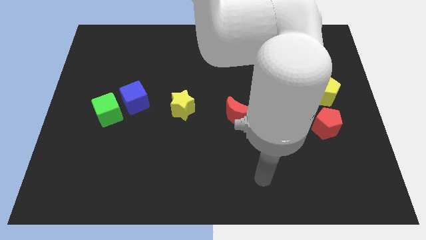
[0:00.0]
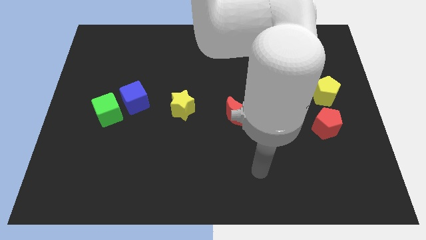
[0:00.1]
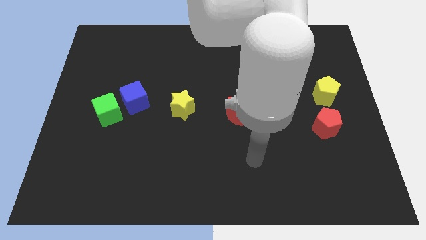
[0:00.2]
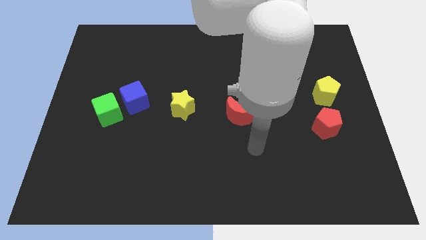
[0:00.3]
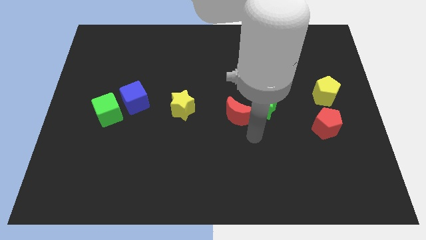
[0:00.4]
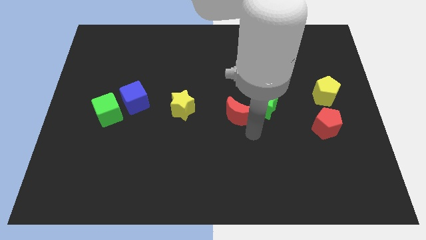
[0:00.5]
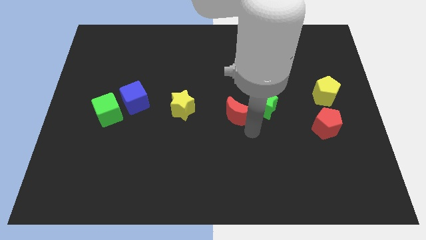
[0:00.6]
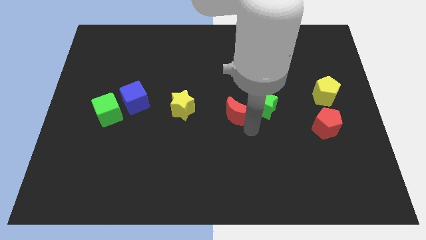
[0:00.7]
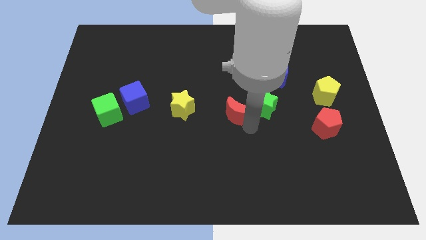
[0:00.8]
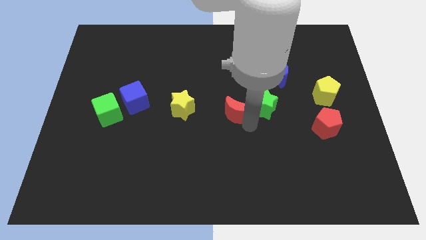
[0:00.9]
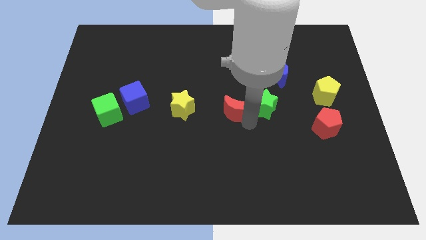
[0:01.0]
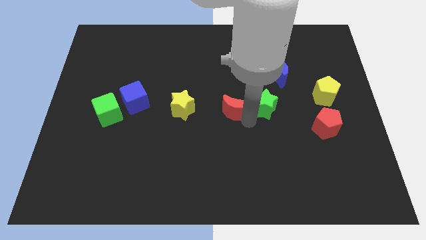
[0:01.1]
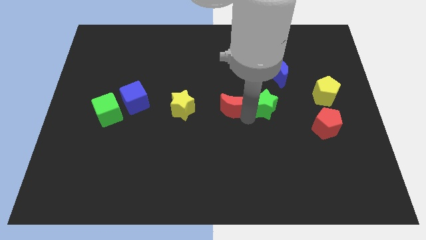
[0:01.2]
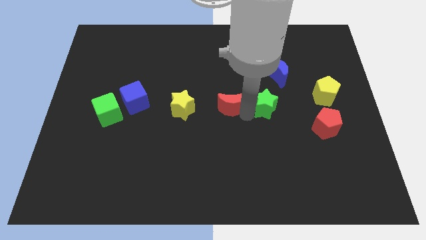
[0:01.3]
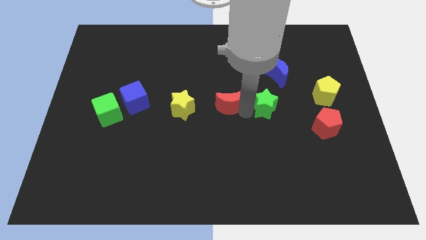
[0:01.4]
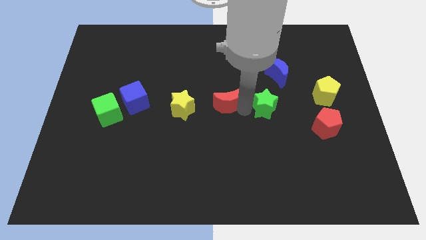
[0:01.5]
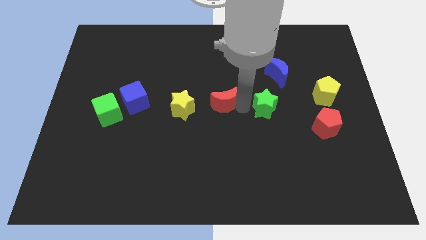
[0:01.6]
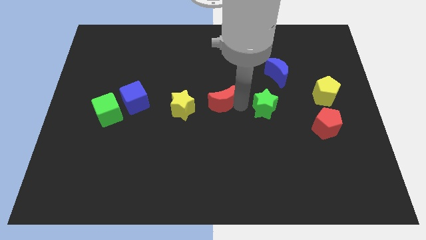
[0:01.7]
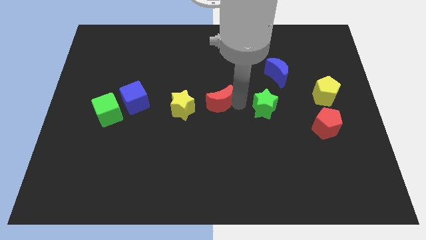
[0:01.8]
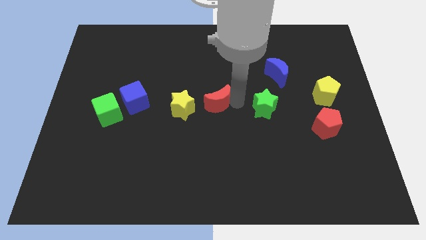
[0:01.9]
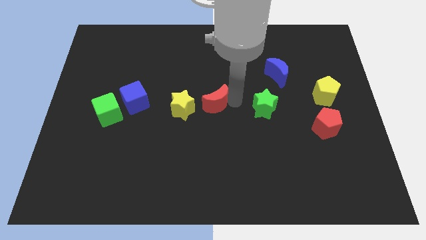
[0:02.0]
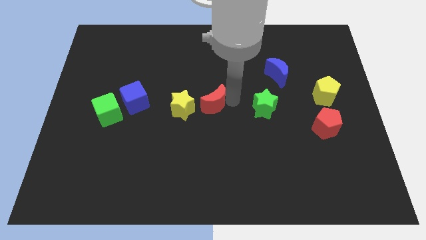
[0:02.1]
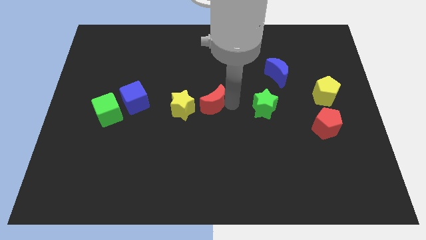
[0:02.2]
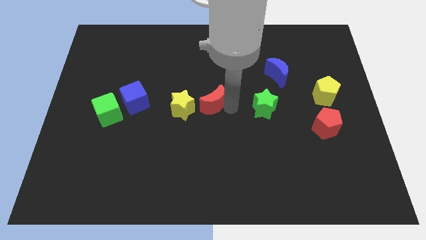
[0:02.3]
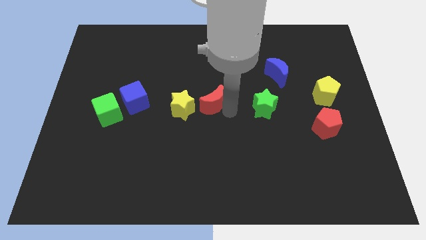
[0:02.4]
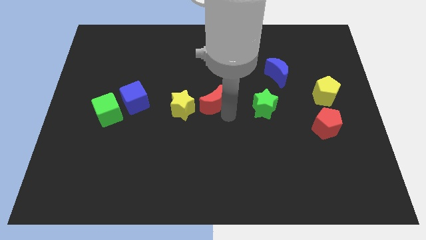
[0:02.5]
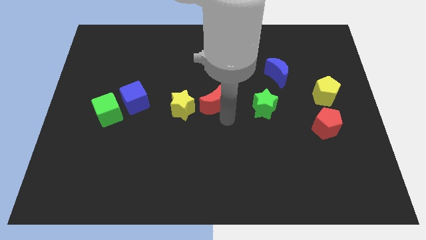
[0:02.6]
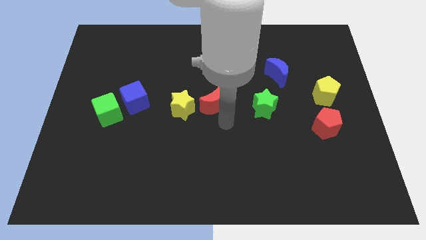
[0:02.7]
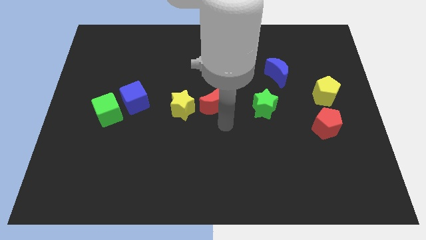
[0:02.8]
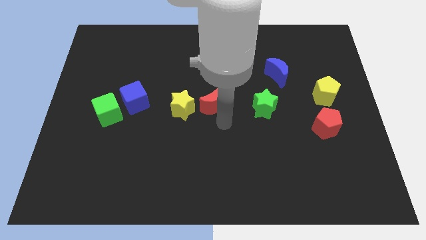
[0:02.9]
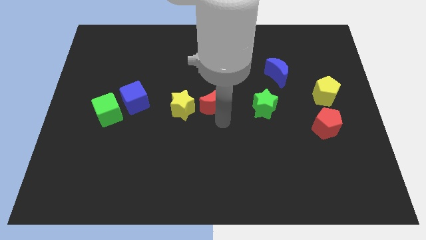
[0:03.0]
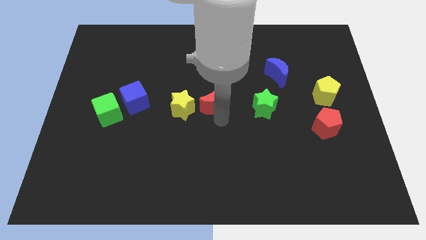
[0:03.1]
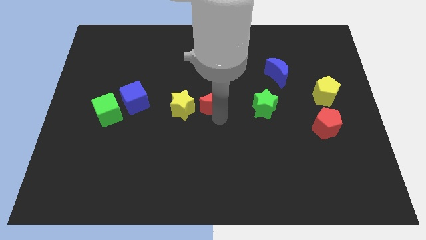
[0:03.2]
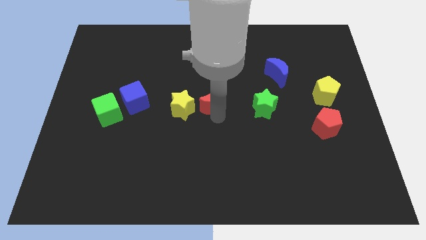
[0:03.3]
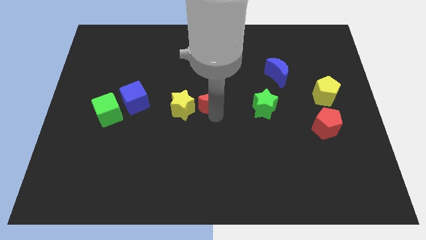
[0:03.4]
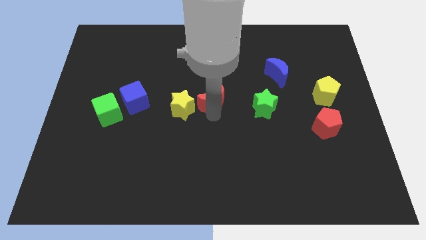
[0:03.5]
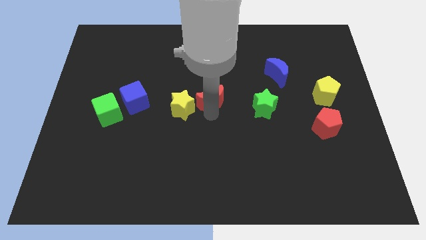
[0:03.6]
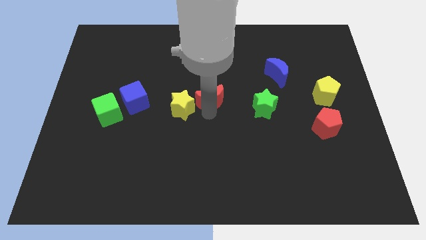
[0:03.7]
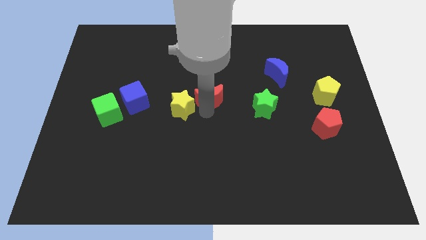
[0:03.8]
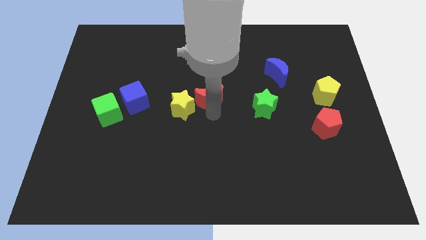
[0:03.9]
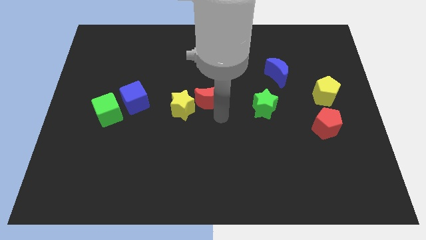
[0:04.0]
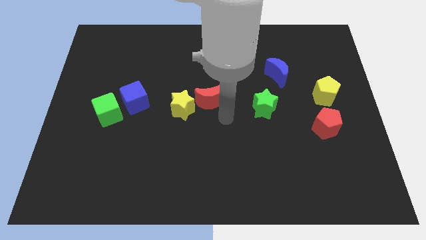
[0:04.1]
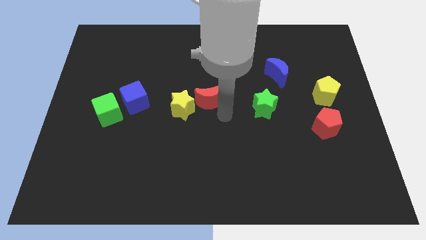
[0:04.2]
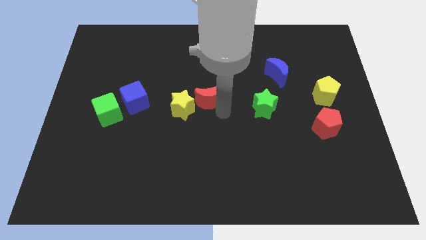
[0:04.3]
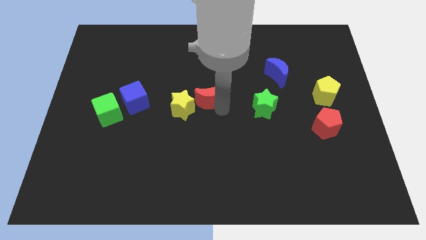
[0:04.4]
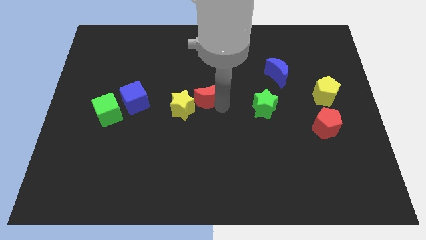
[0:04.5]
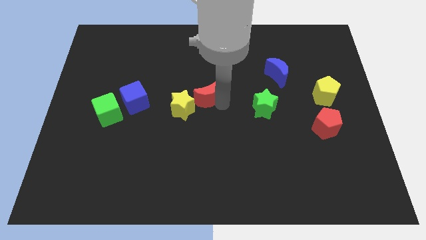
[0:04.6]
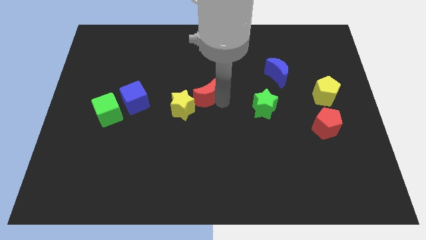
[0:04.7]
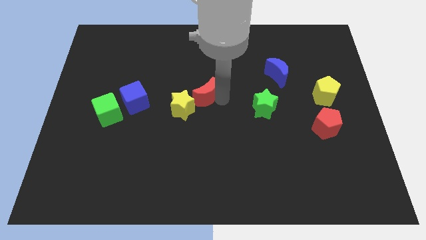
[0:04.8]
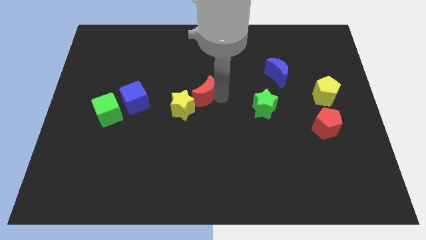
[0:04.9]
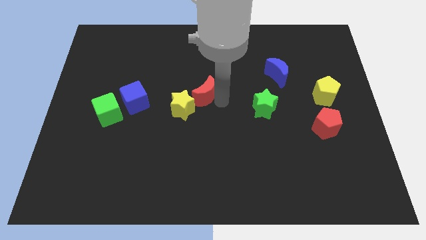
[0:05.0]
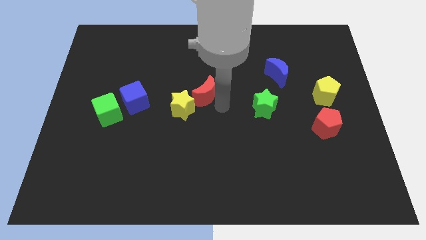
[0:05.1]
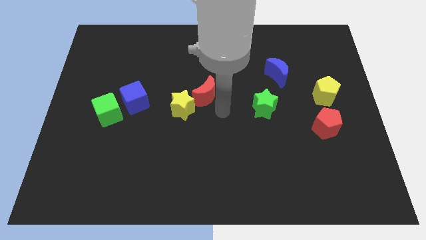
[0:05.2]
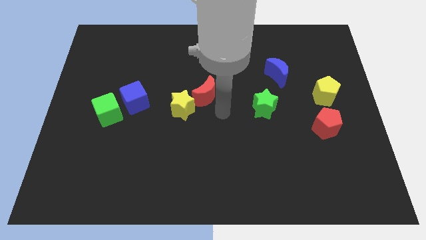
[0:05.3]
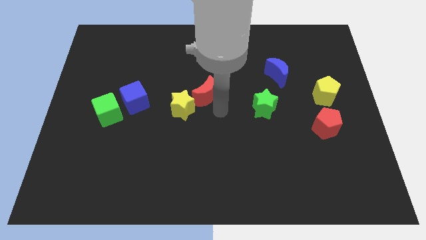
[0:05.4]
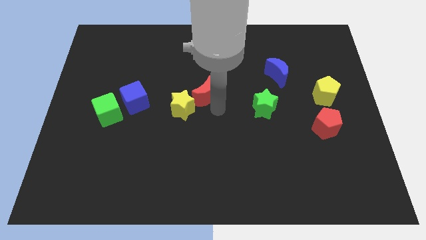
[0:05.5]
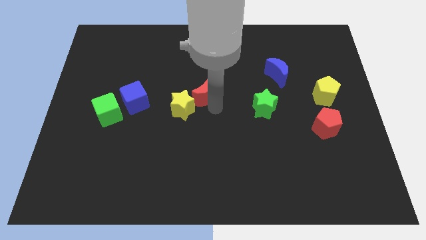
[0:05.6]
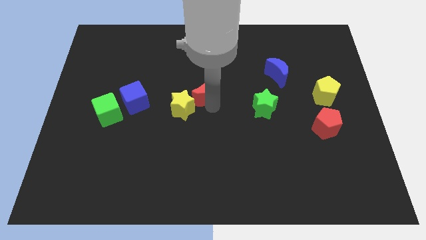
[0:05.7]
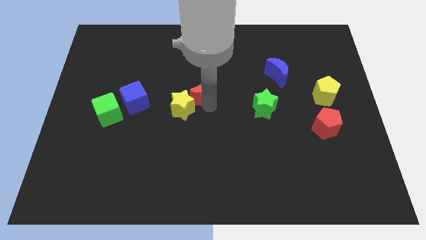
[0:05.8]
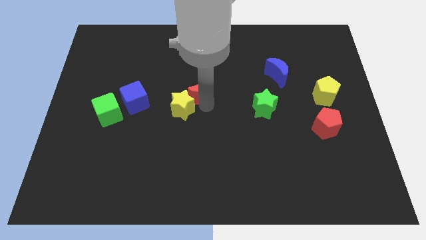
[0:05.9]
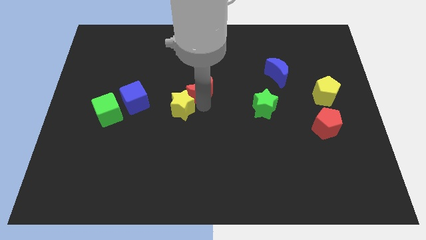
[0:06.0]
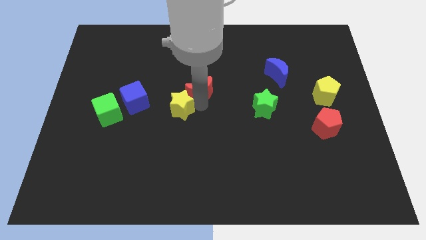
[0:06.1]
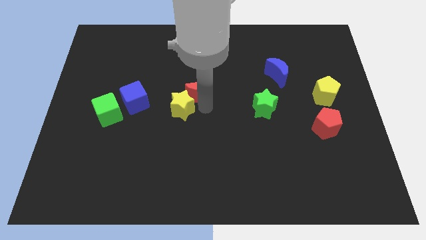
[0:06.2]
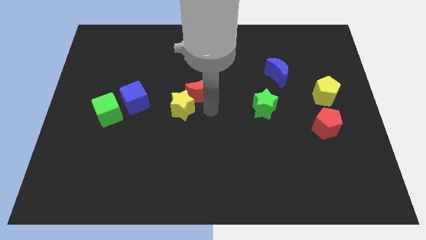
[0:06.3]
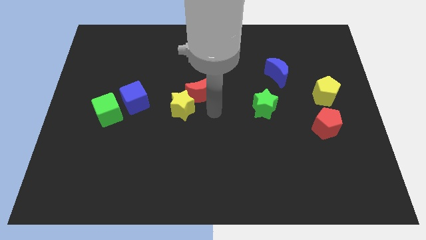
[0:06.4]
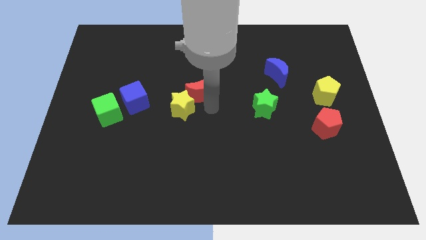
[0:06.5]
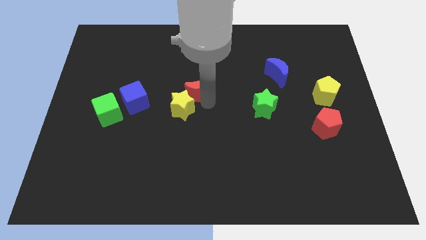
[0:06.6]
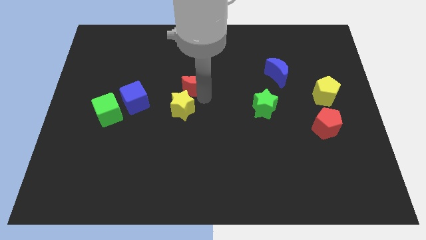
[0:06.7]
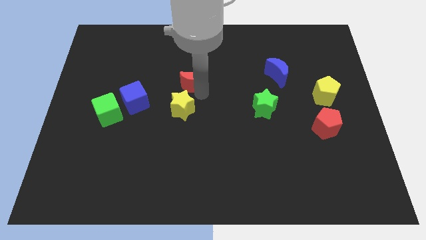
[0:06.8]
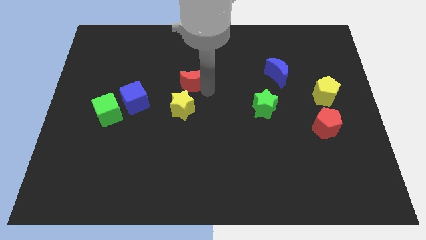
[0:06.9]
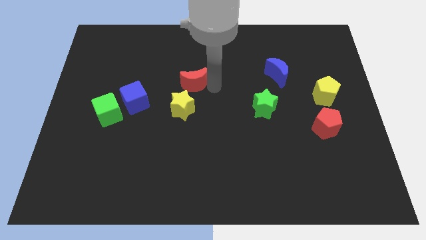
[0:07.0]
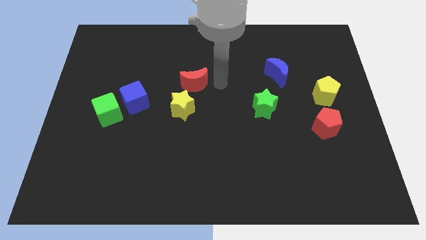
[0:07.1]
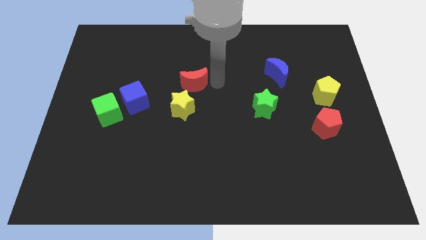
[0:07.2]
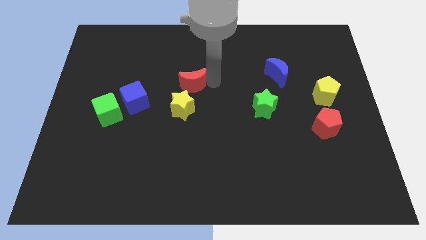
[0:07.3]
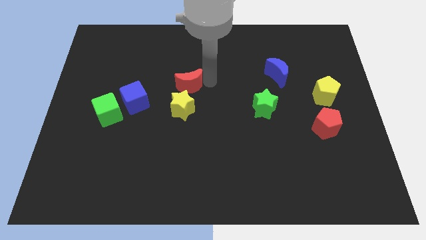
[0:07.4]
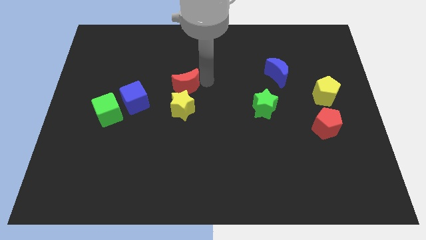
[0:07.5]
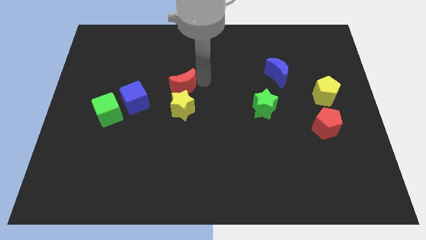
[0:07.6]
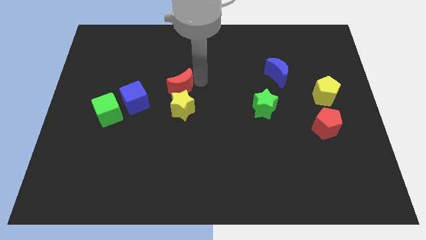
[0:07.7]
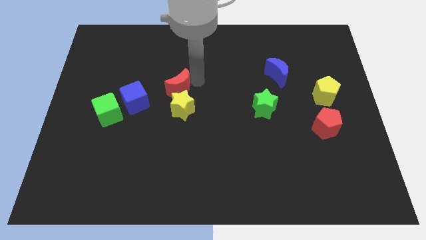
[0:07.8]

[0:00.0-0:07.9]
move the red moon to the top right of the blue cube
